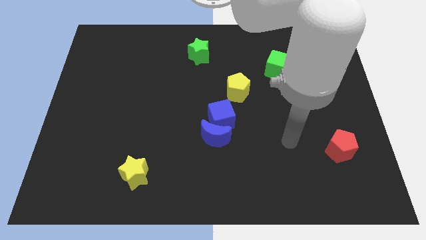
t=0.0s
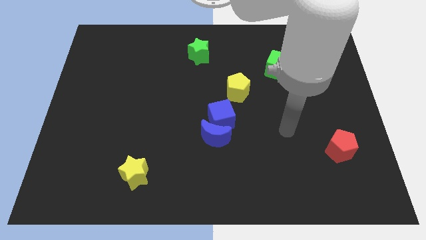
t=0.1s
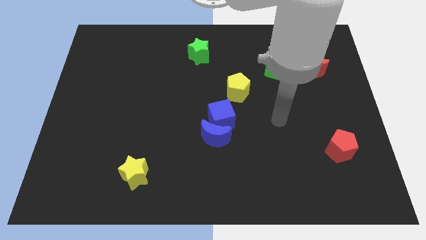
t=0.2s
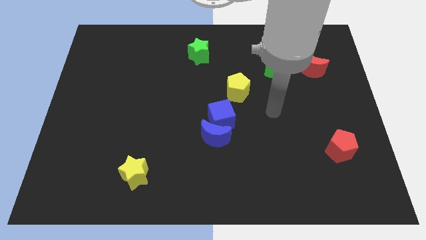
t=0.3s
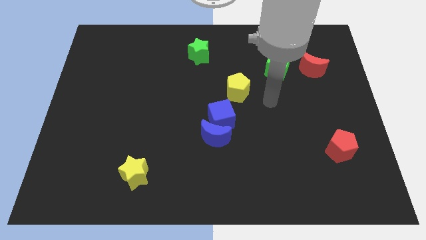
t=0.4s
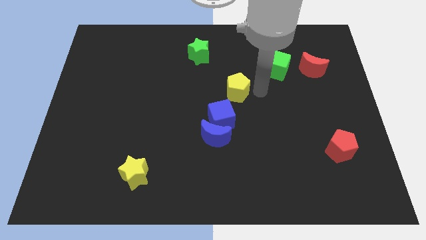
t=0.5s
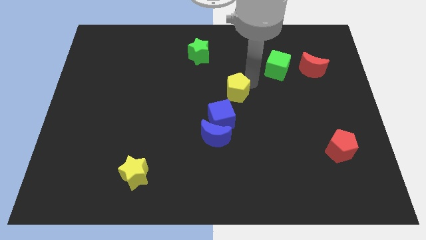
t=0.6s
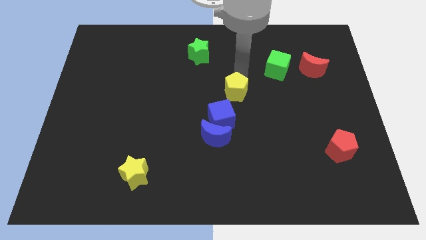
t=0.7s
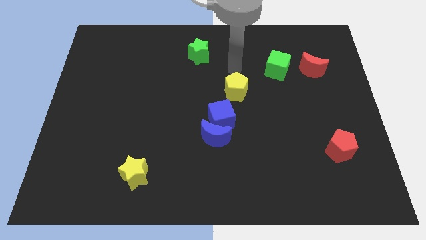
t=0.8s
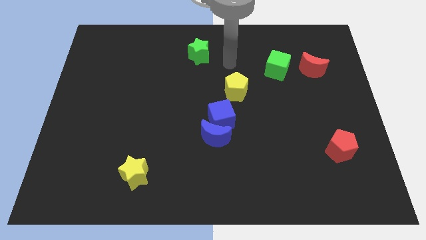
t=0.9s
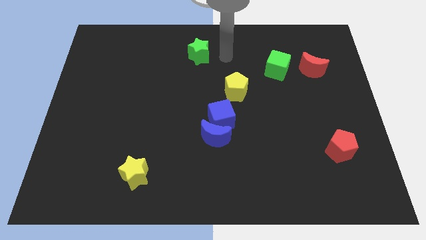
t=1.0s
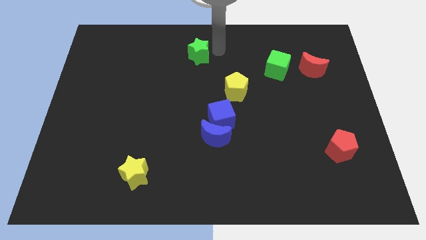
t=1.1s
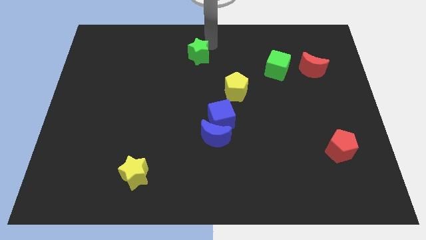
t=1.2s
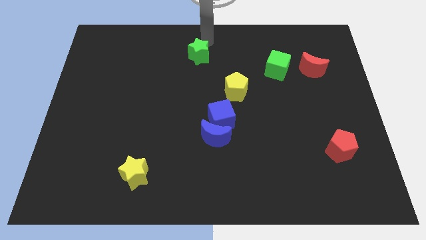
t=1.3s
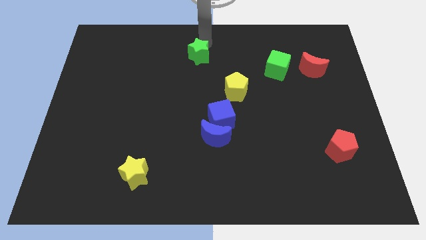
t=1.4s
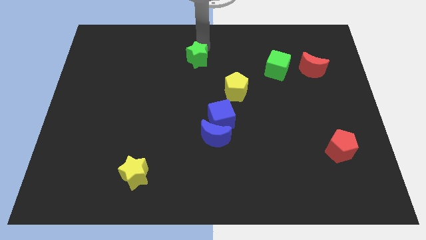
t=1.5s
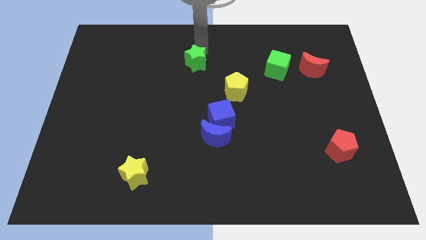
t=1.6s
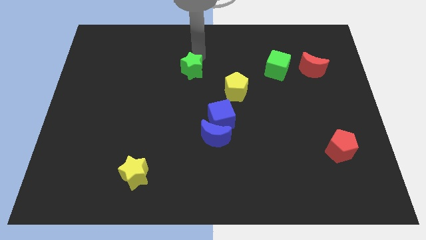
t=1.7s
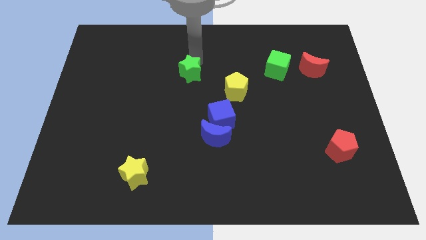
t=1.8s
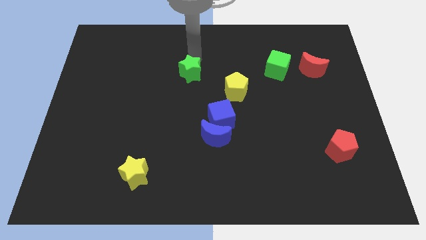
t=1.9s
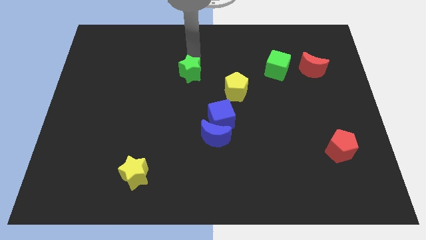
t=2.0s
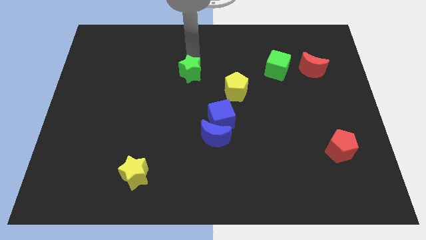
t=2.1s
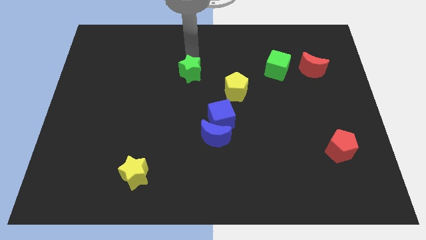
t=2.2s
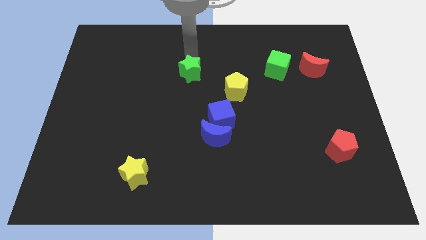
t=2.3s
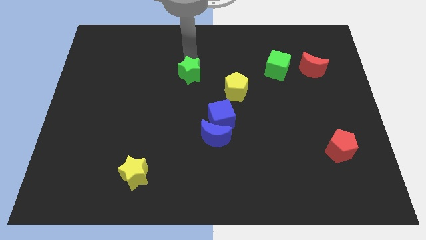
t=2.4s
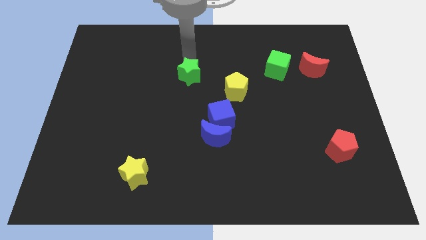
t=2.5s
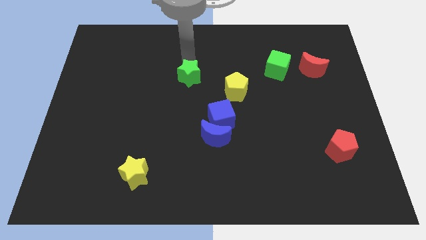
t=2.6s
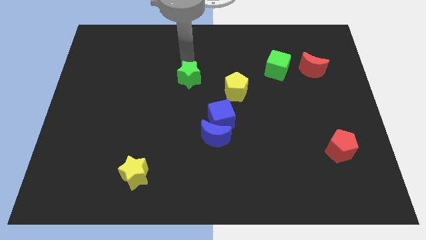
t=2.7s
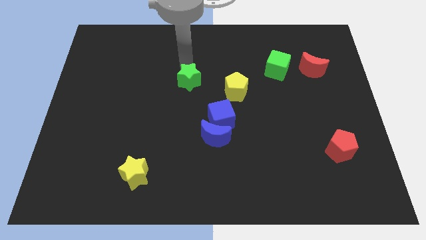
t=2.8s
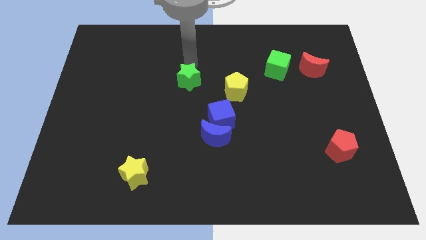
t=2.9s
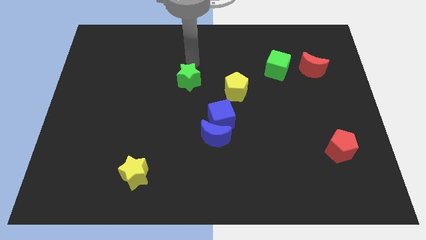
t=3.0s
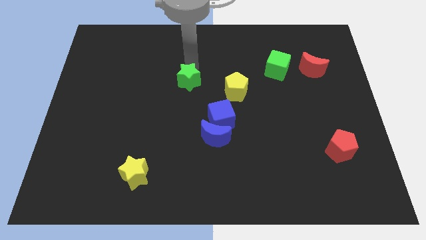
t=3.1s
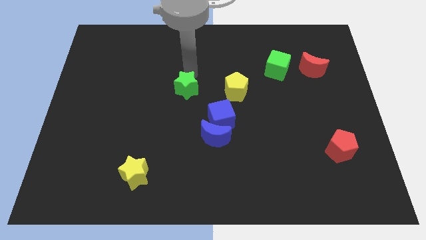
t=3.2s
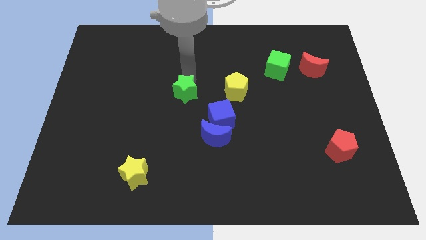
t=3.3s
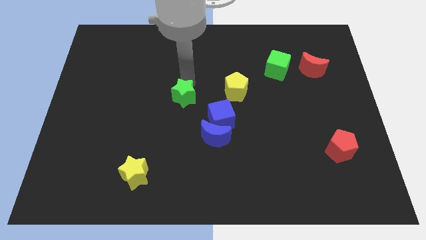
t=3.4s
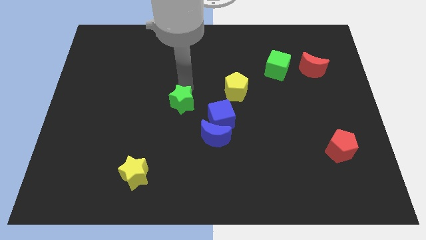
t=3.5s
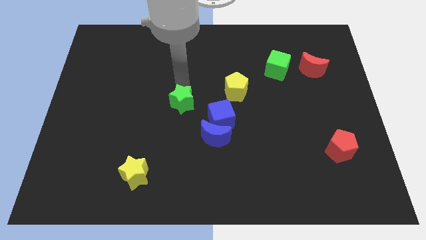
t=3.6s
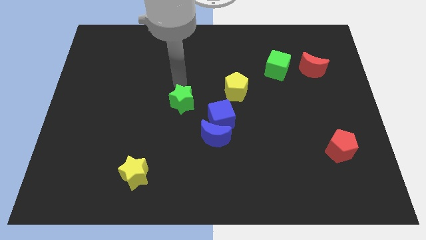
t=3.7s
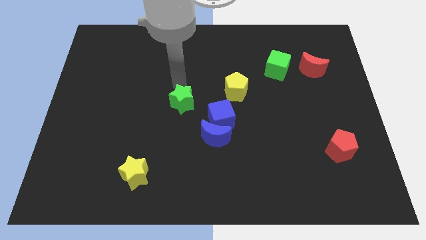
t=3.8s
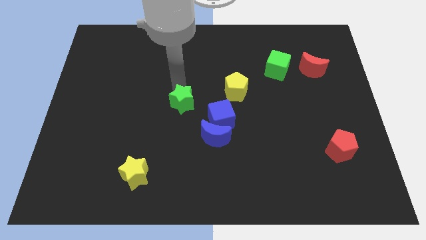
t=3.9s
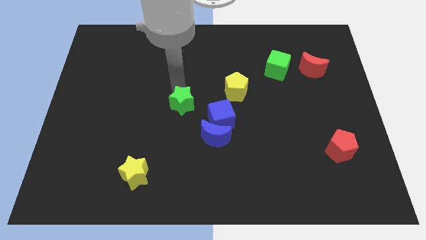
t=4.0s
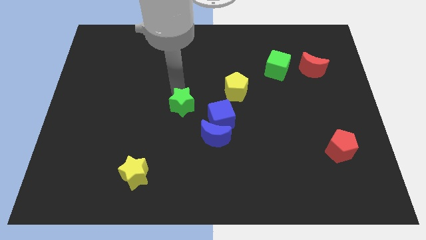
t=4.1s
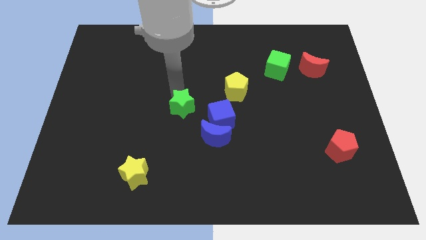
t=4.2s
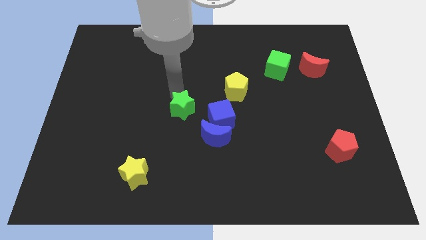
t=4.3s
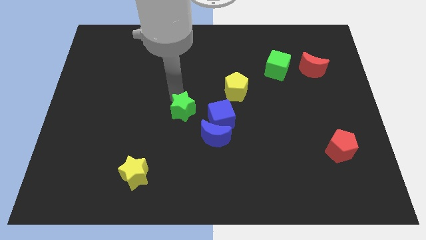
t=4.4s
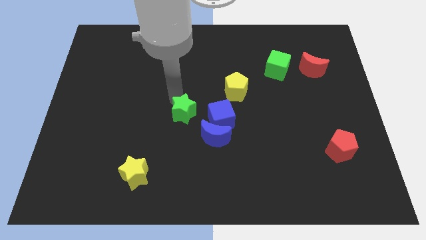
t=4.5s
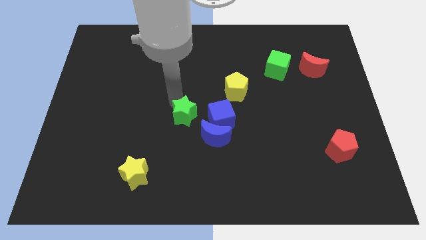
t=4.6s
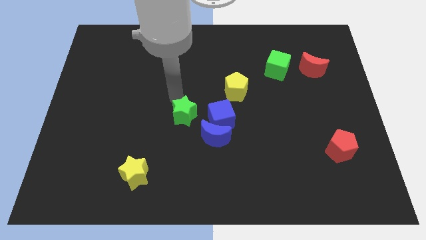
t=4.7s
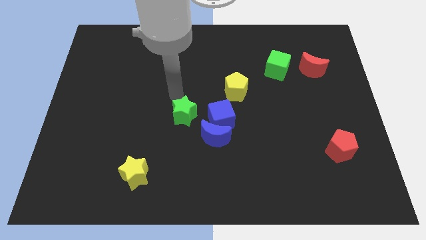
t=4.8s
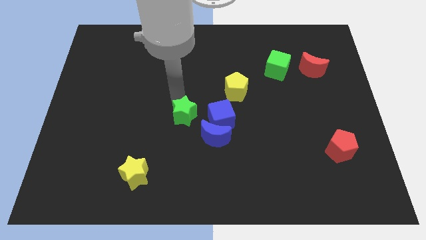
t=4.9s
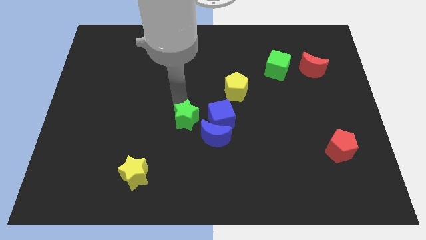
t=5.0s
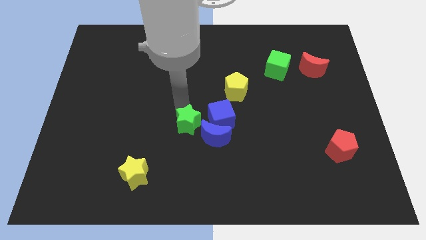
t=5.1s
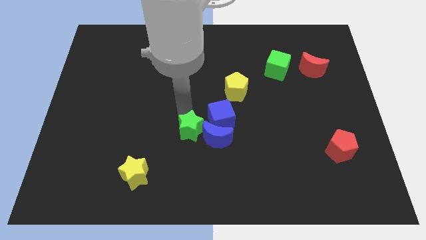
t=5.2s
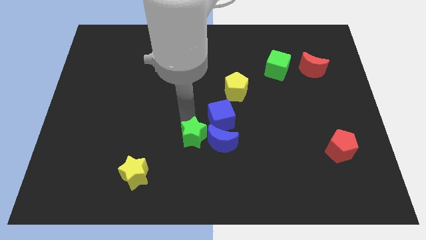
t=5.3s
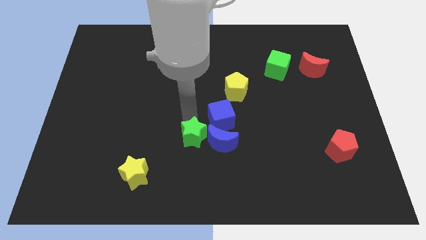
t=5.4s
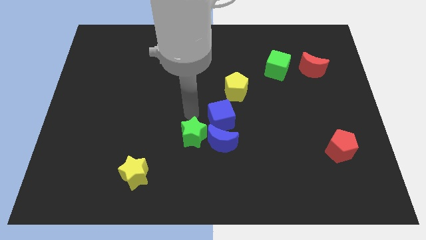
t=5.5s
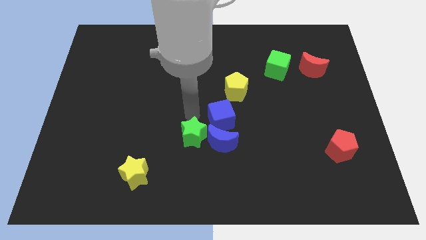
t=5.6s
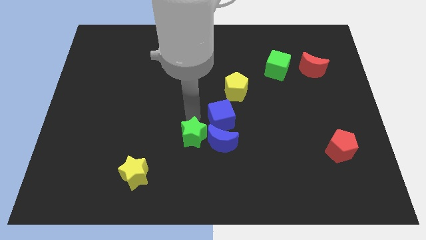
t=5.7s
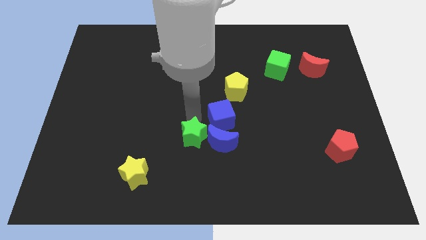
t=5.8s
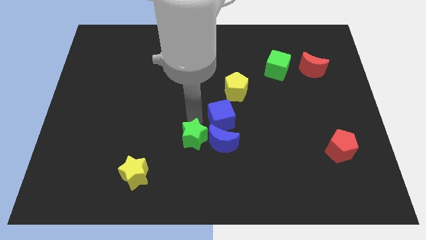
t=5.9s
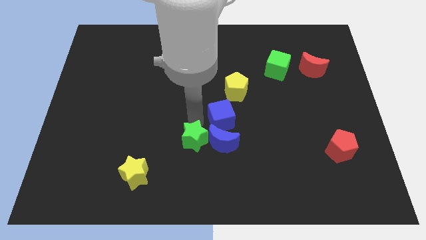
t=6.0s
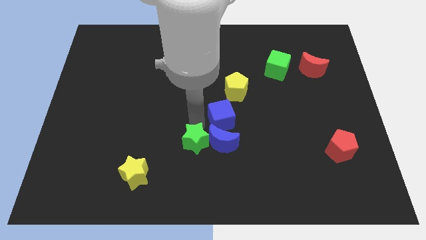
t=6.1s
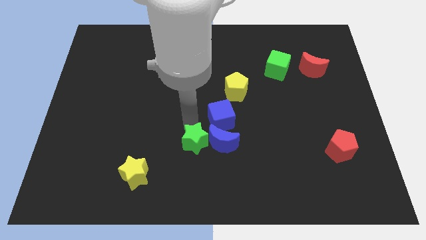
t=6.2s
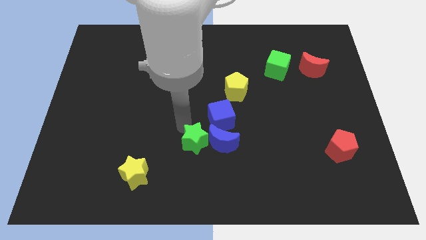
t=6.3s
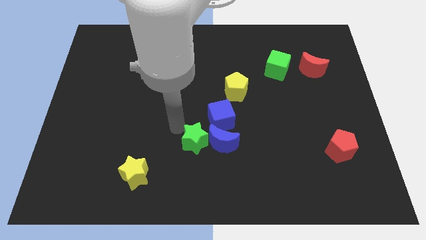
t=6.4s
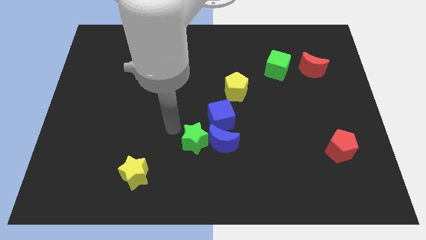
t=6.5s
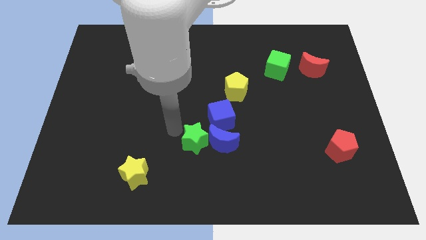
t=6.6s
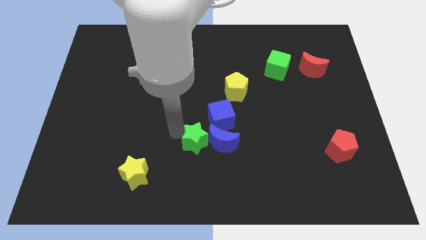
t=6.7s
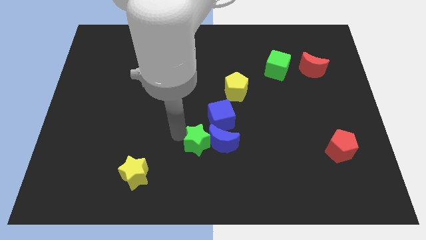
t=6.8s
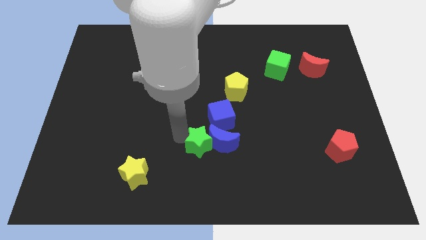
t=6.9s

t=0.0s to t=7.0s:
push the green star to the bottom of the blue cube

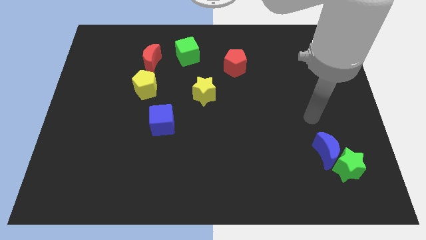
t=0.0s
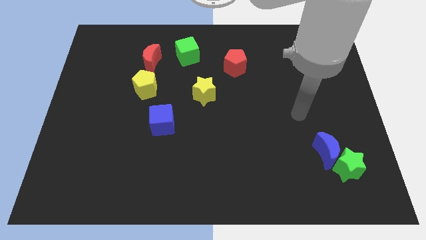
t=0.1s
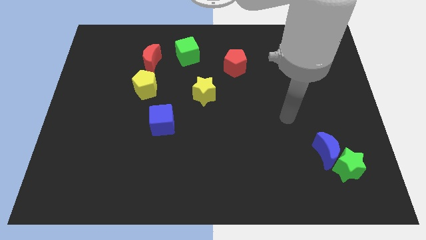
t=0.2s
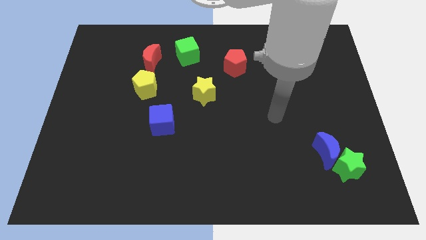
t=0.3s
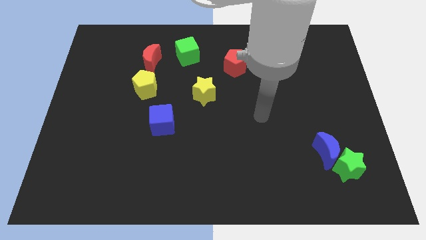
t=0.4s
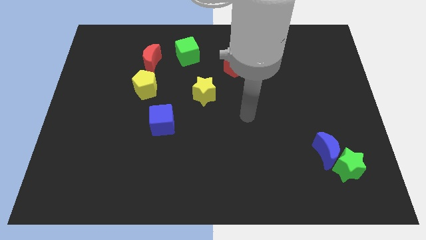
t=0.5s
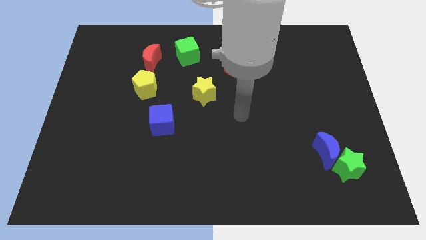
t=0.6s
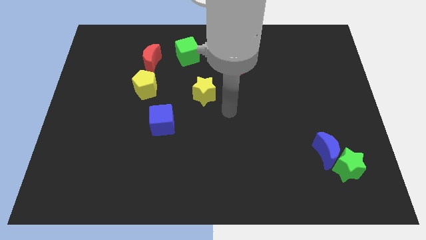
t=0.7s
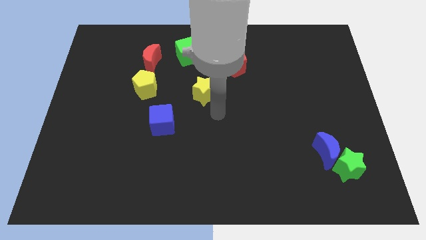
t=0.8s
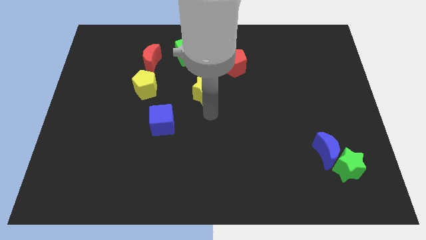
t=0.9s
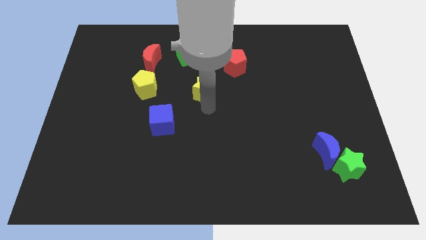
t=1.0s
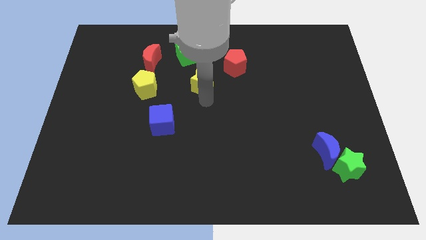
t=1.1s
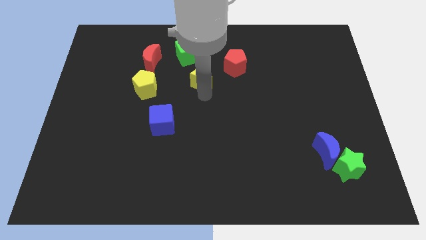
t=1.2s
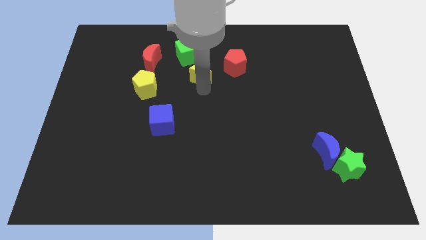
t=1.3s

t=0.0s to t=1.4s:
move the yellow star left of the red pentagon
